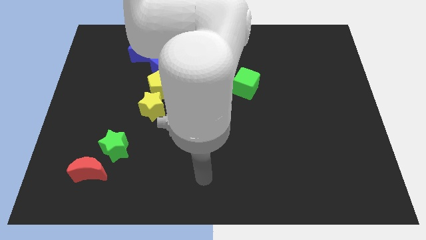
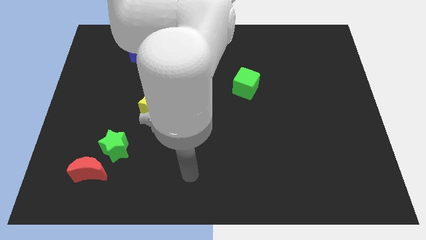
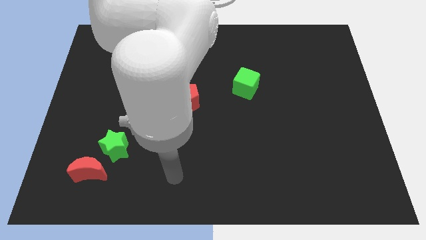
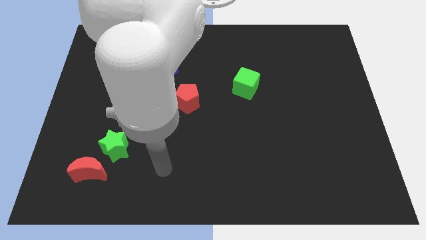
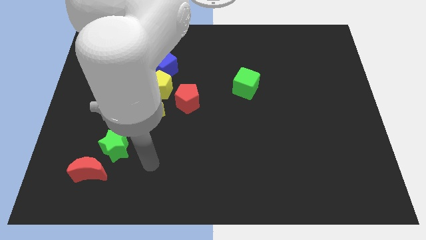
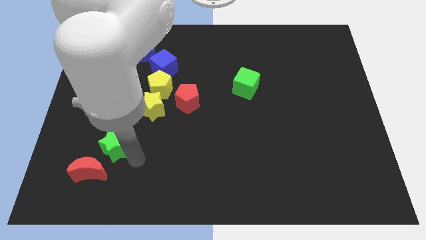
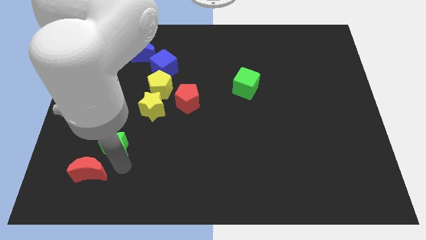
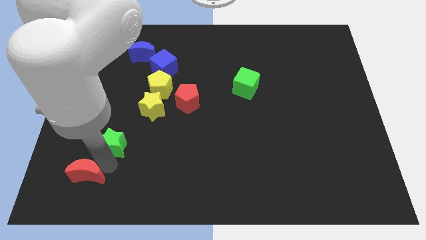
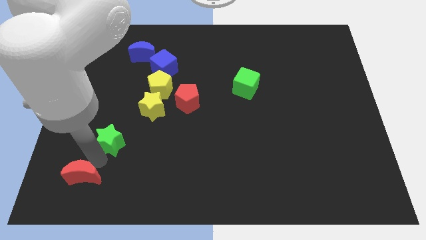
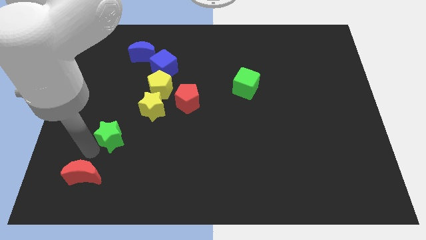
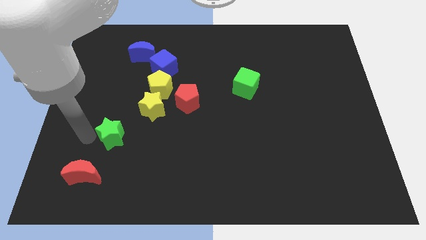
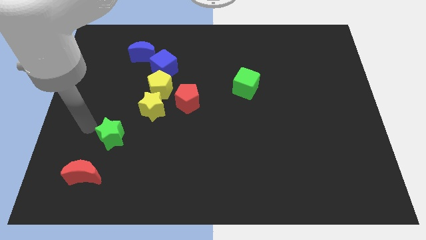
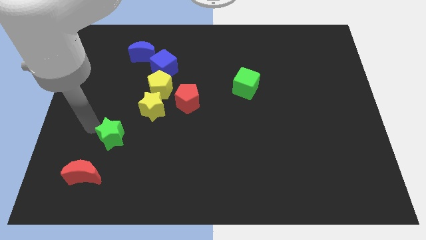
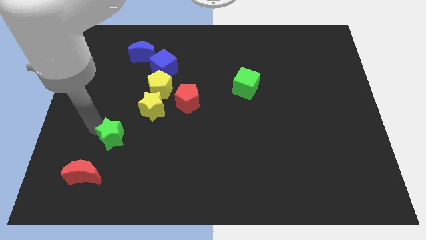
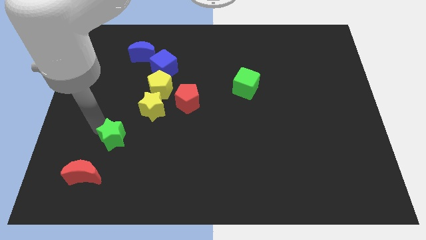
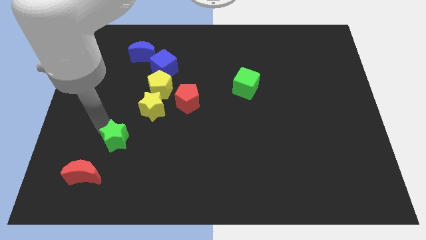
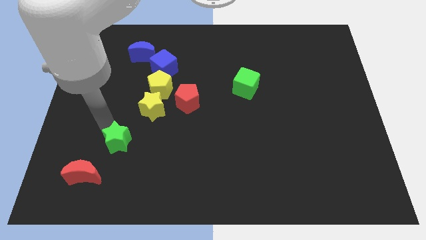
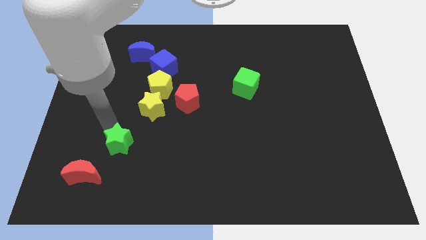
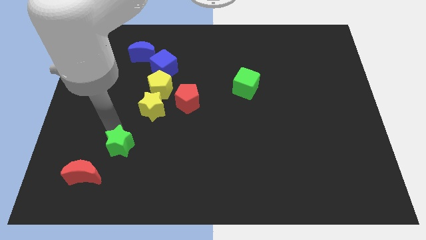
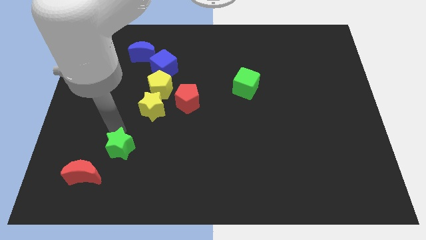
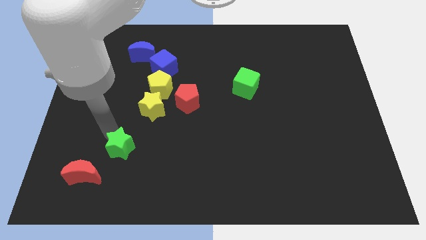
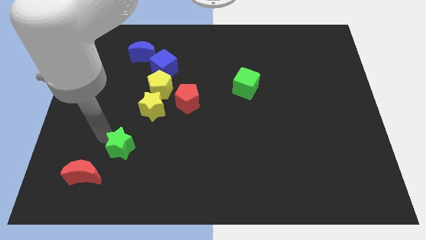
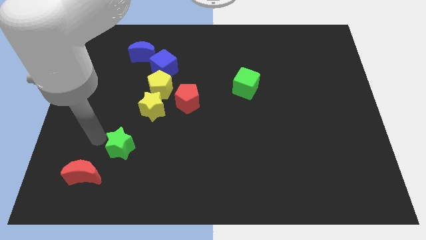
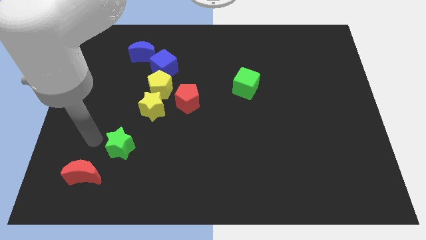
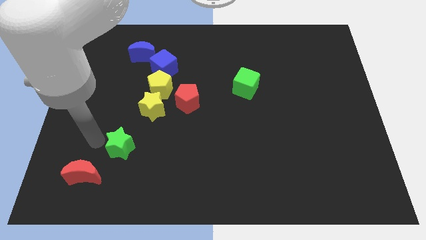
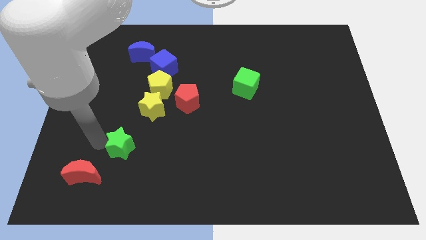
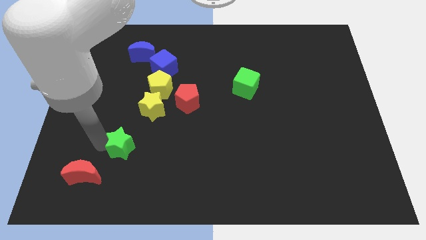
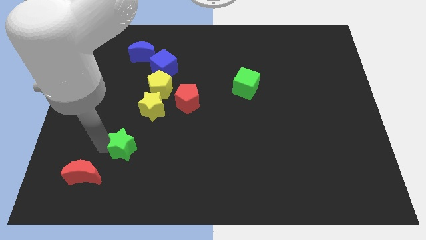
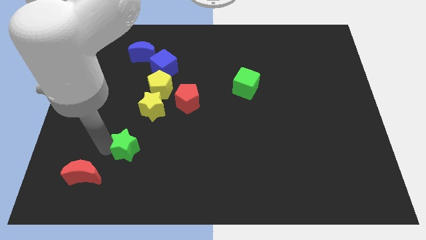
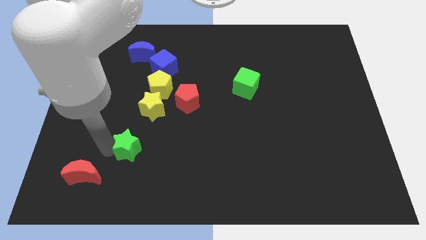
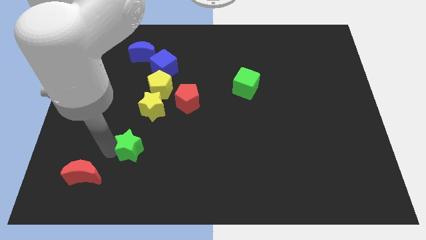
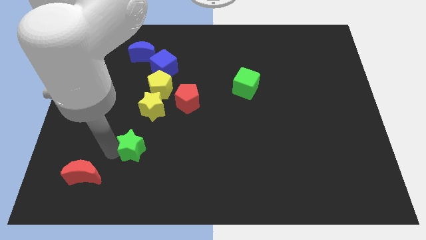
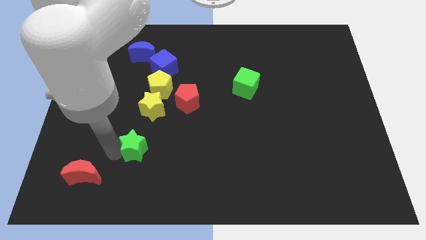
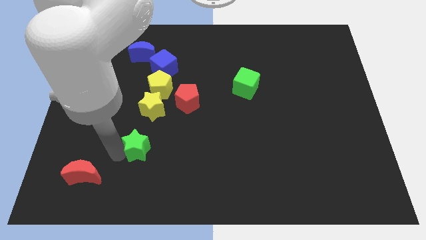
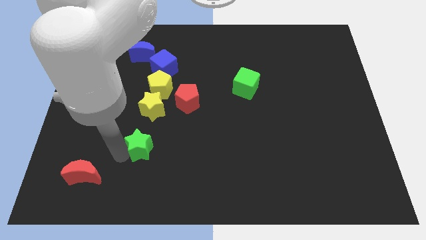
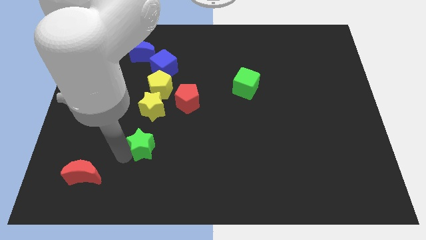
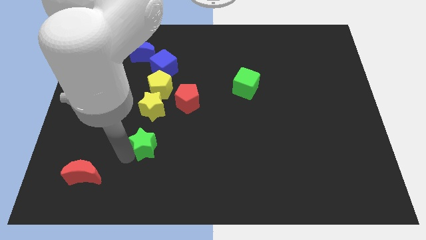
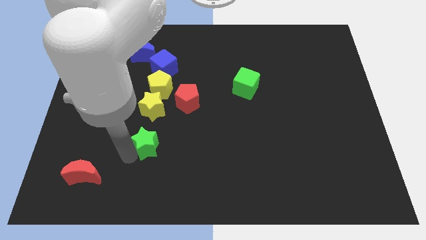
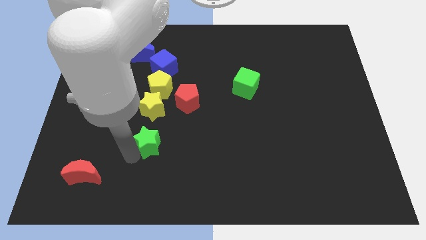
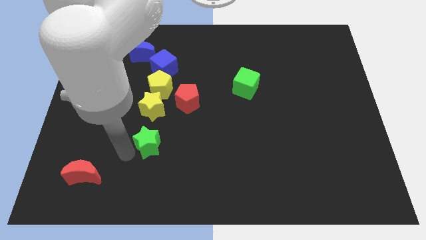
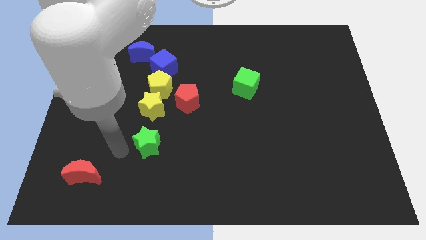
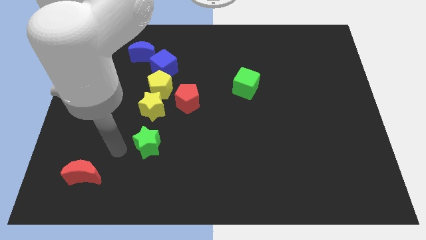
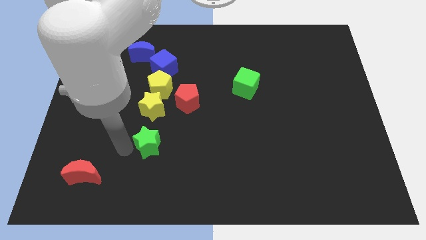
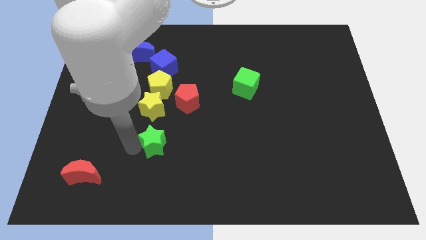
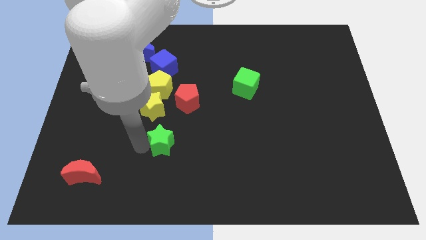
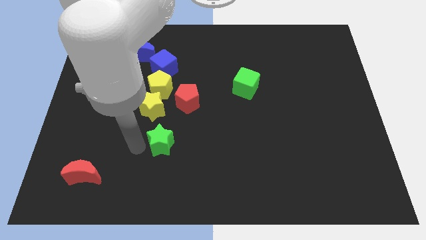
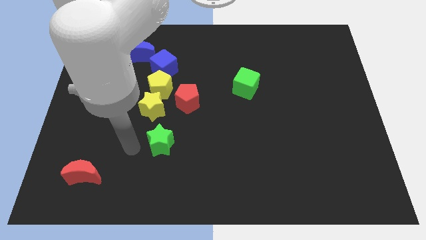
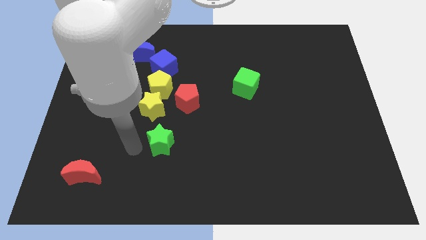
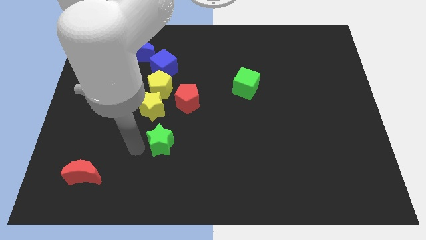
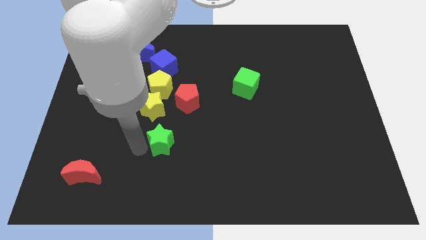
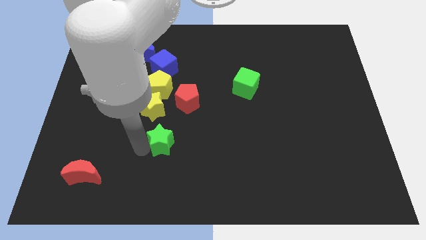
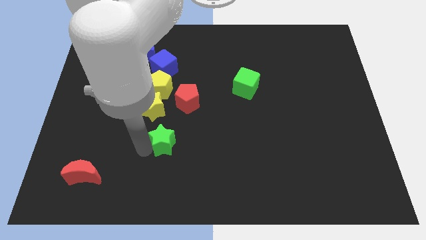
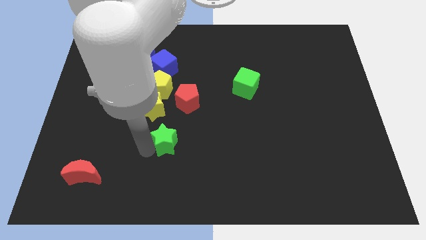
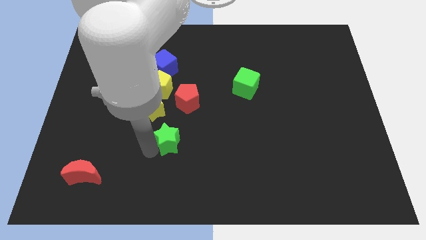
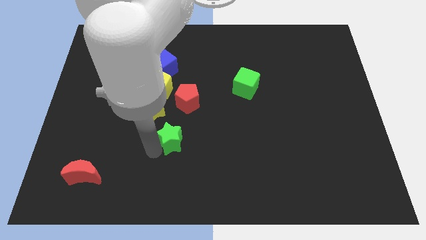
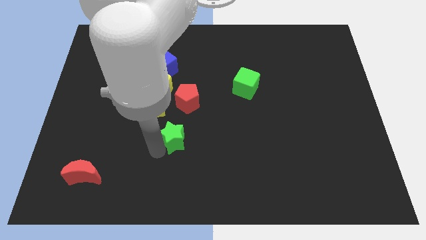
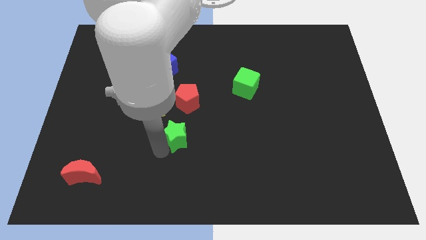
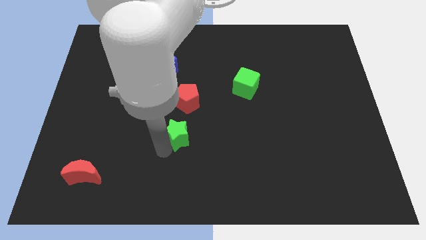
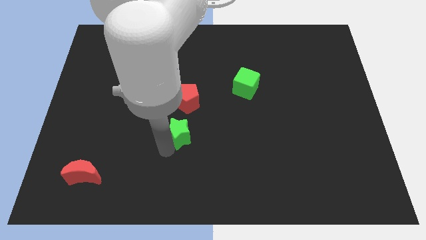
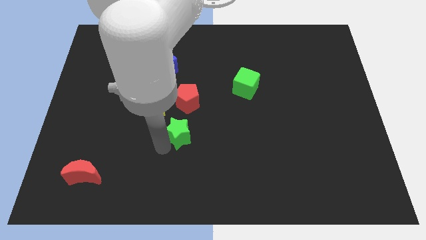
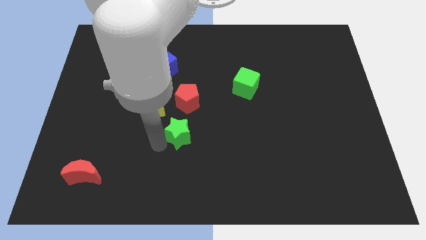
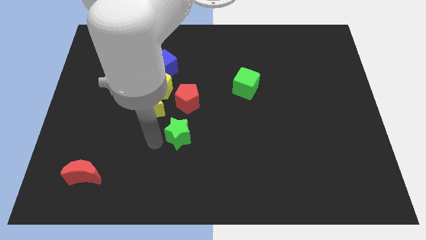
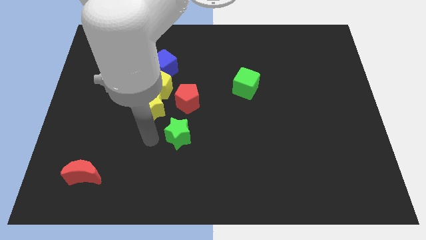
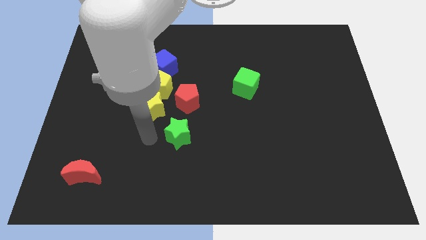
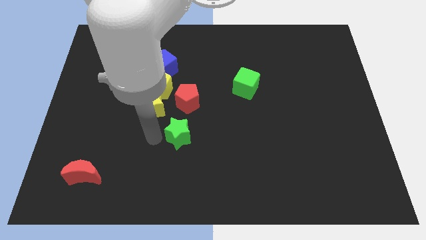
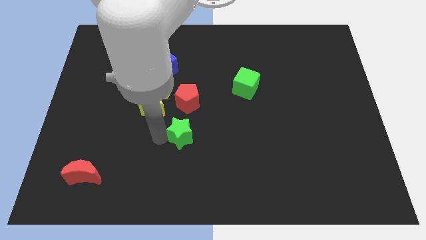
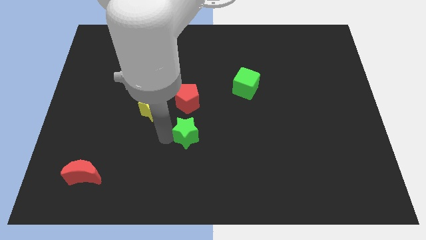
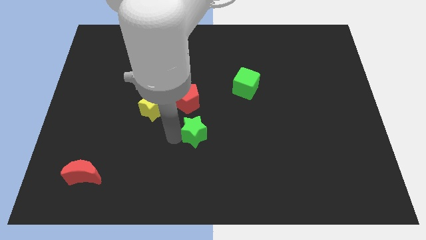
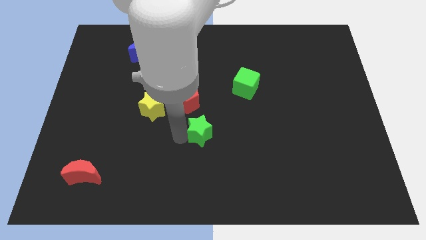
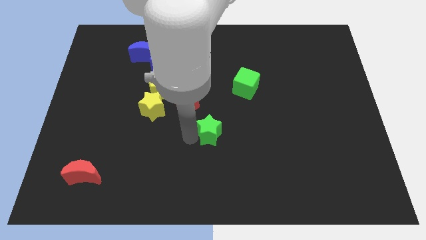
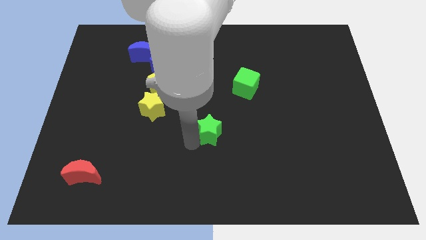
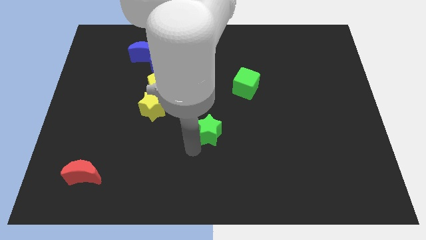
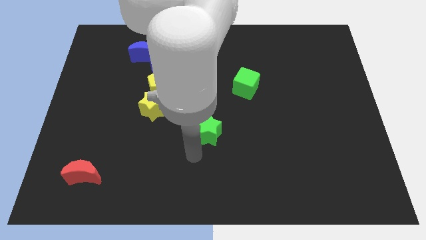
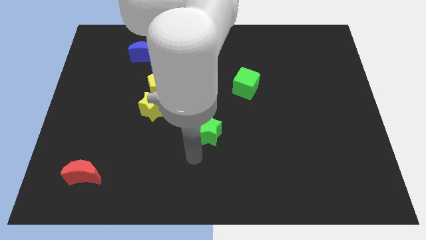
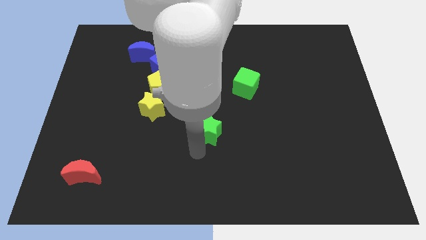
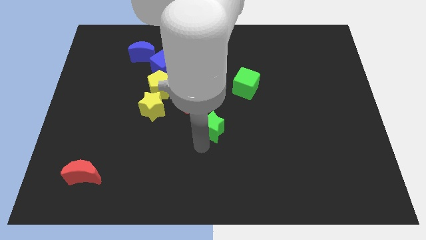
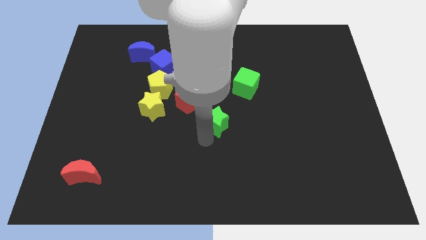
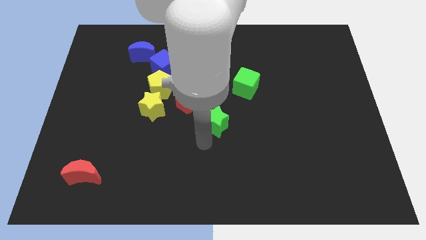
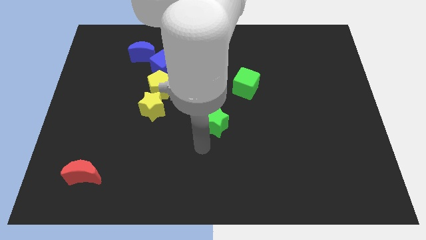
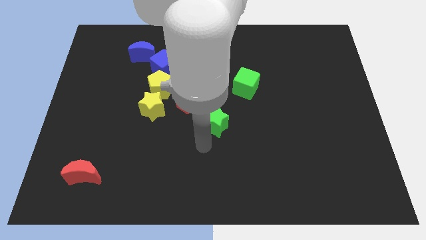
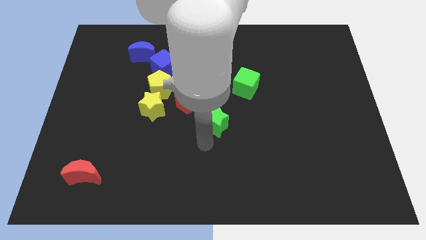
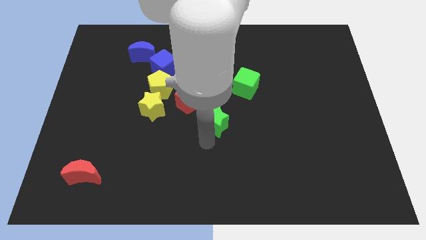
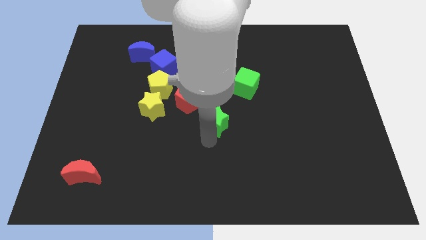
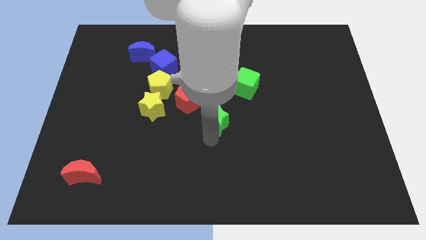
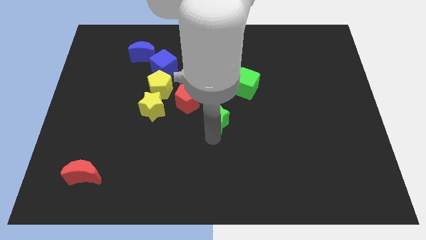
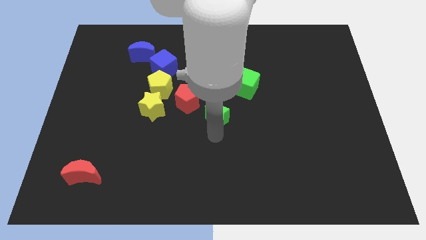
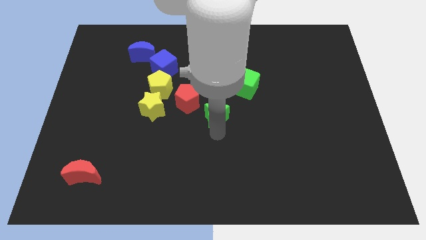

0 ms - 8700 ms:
slide the green star to the right of the red pentagon
